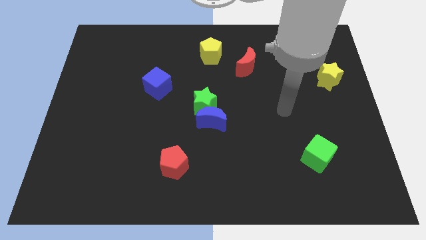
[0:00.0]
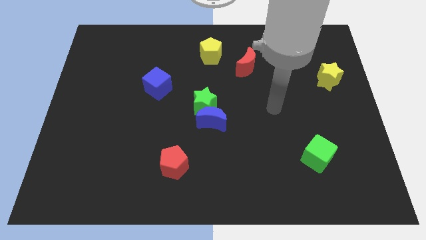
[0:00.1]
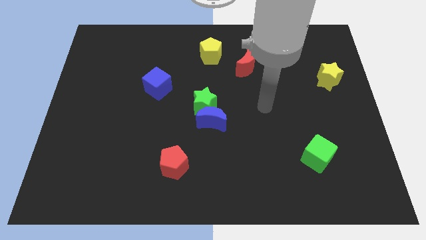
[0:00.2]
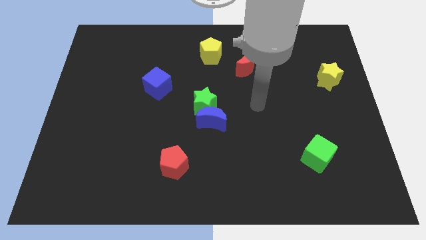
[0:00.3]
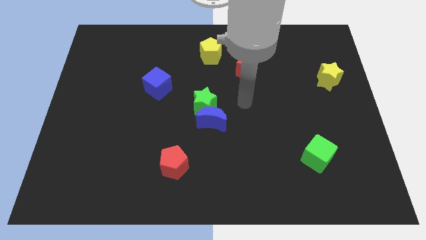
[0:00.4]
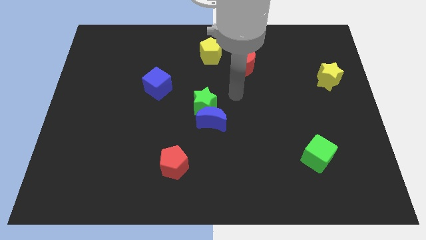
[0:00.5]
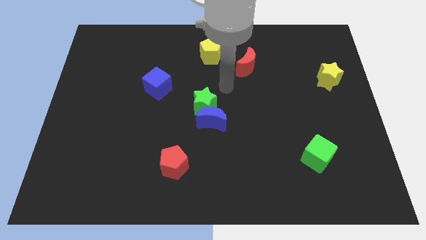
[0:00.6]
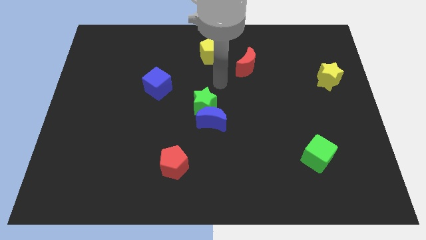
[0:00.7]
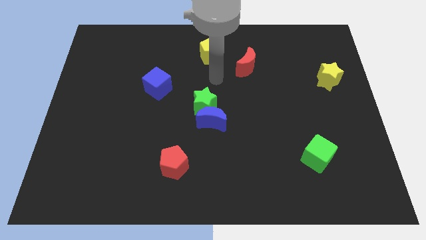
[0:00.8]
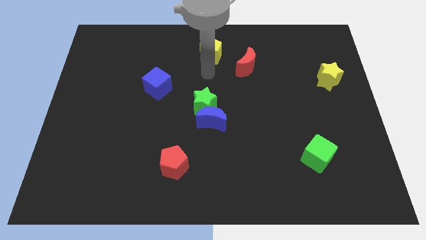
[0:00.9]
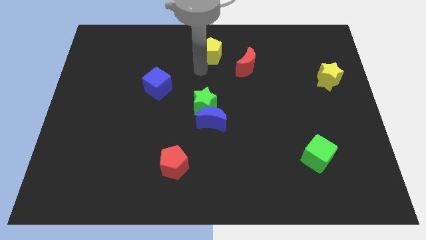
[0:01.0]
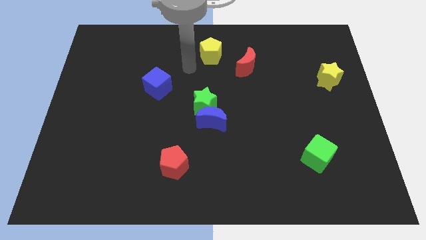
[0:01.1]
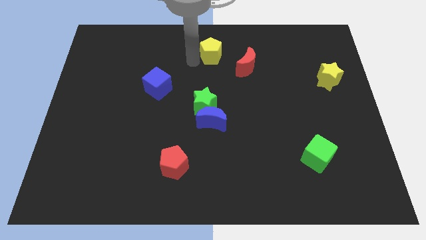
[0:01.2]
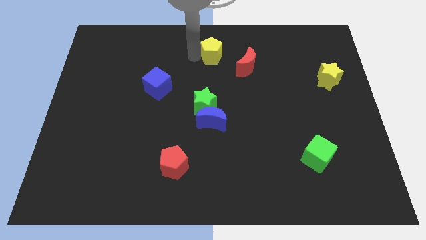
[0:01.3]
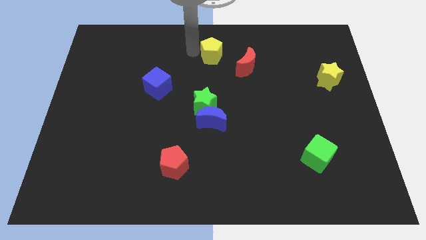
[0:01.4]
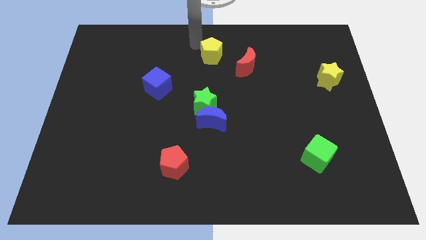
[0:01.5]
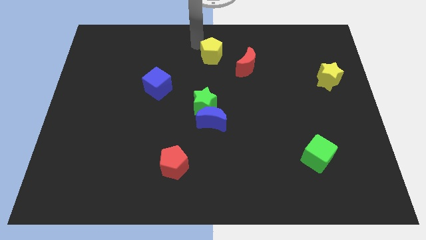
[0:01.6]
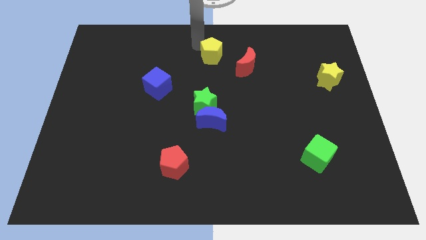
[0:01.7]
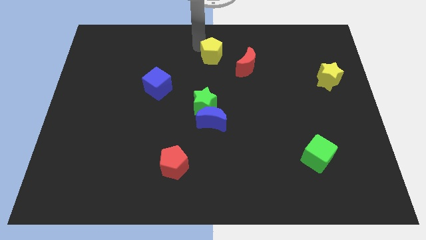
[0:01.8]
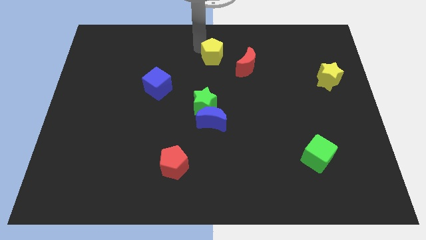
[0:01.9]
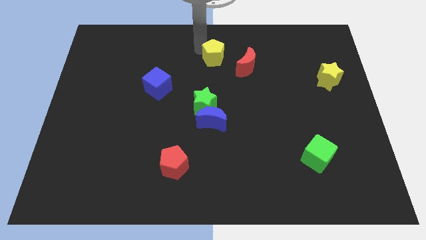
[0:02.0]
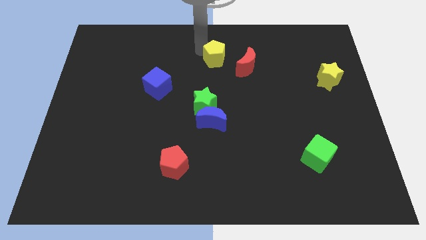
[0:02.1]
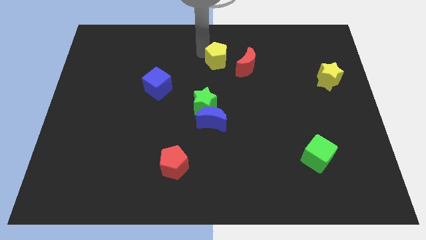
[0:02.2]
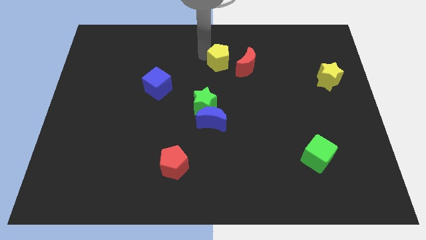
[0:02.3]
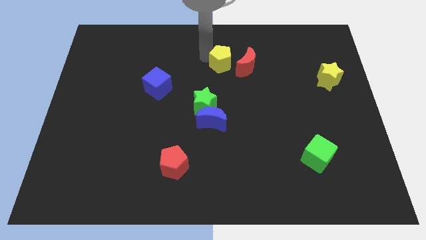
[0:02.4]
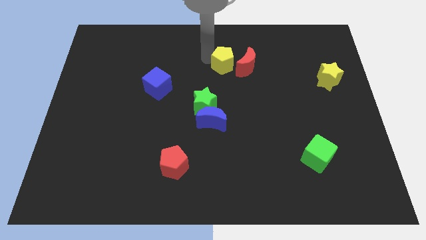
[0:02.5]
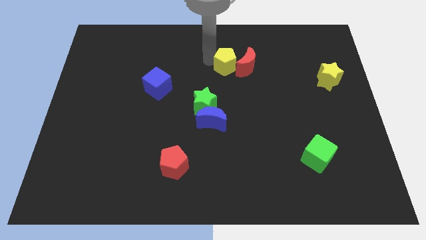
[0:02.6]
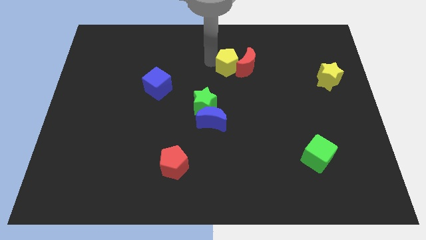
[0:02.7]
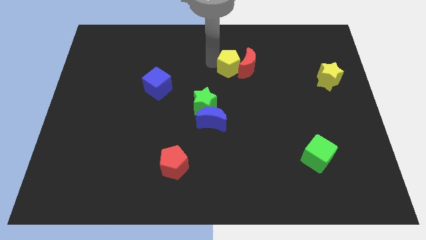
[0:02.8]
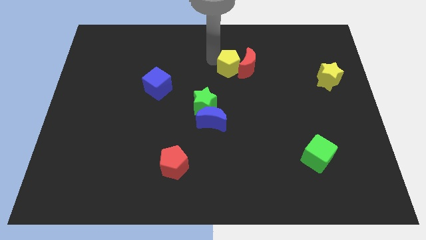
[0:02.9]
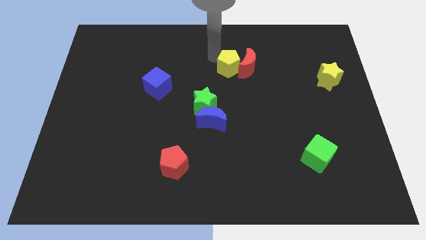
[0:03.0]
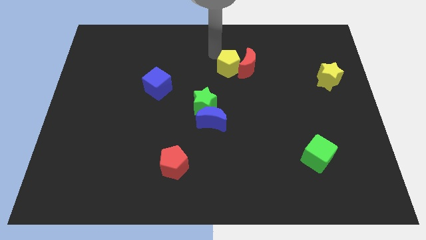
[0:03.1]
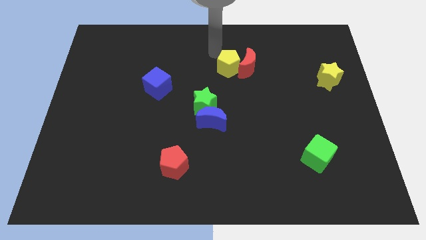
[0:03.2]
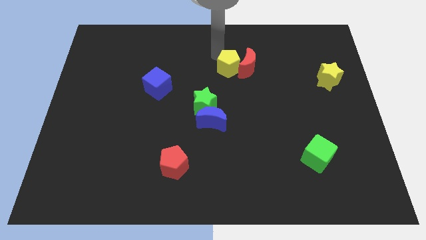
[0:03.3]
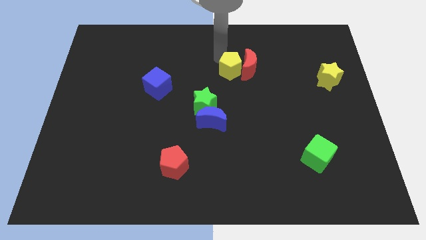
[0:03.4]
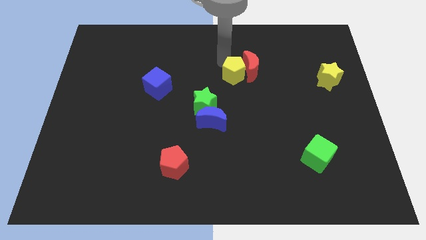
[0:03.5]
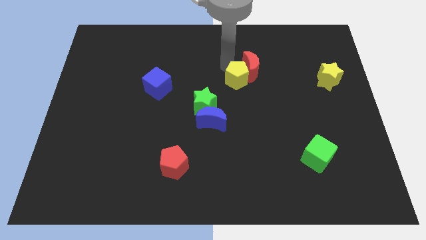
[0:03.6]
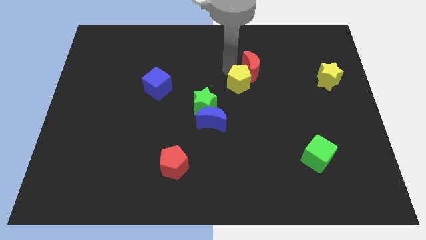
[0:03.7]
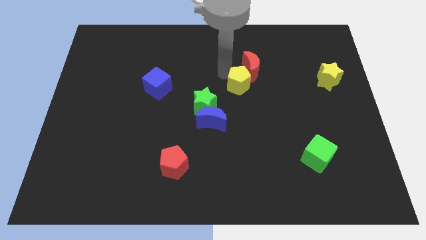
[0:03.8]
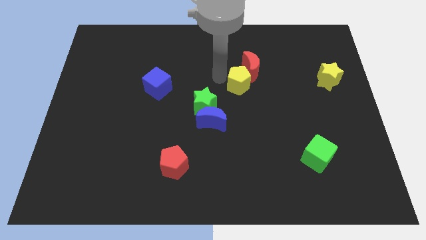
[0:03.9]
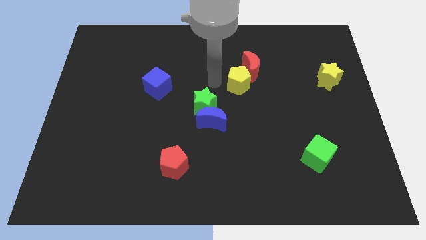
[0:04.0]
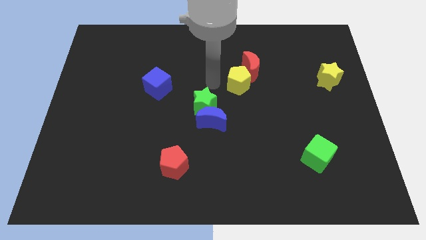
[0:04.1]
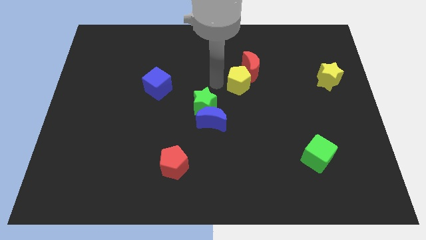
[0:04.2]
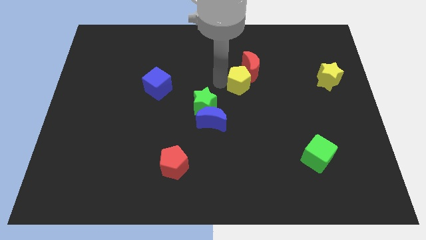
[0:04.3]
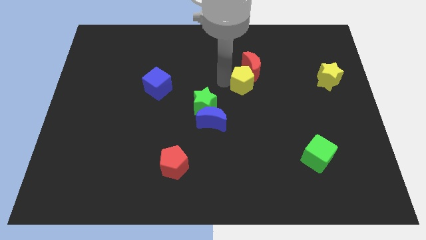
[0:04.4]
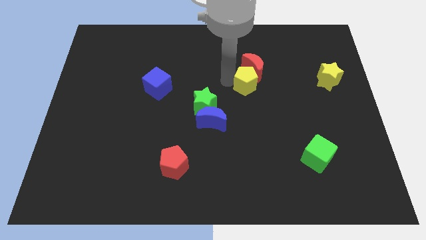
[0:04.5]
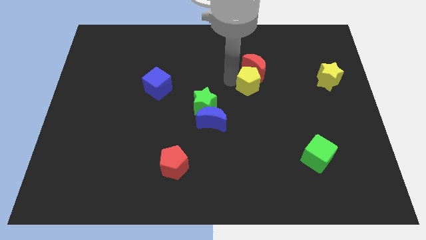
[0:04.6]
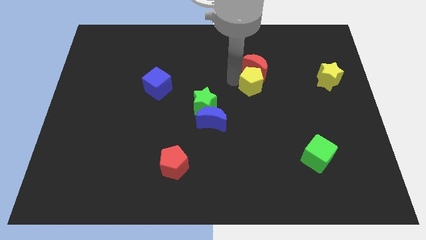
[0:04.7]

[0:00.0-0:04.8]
push the yellow pentagon to the bottom right of the red moon

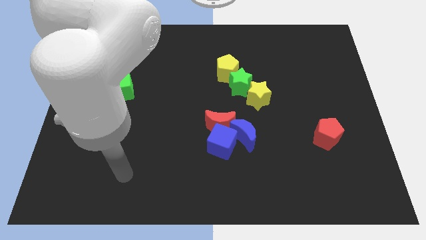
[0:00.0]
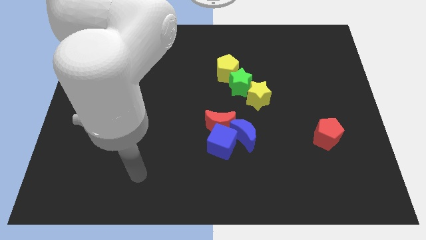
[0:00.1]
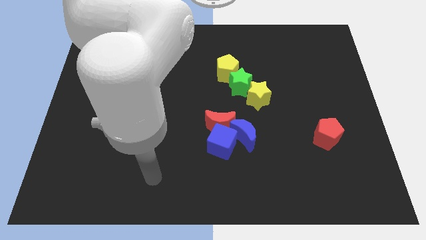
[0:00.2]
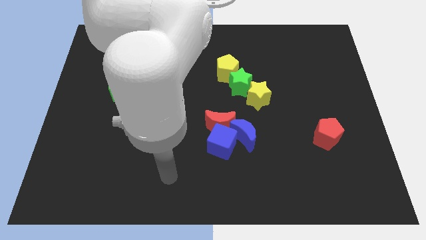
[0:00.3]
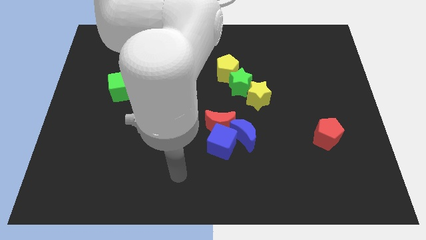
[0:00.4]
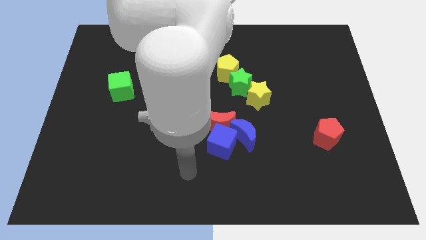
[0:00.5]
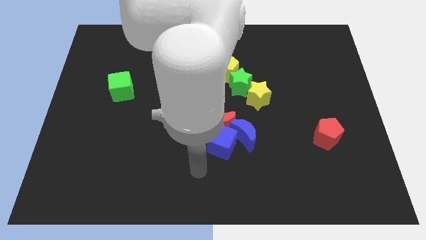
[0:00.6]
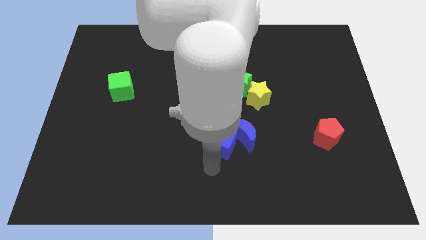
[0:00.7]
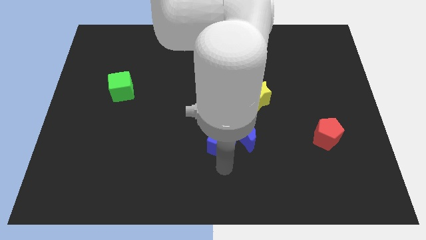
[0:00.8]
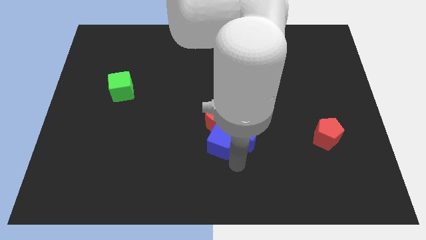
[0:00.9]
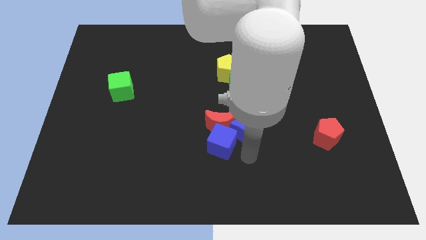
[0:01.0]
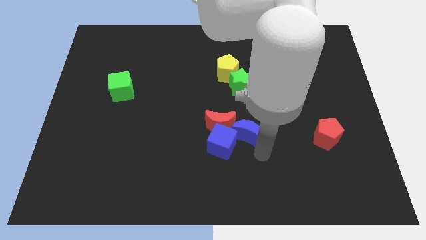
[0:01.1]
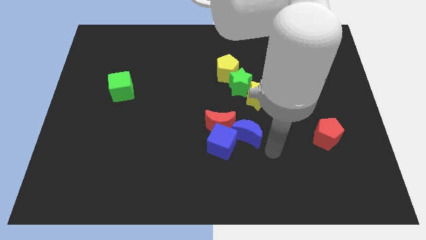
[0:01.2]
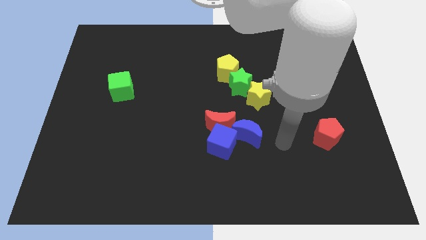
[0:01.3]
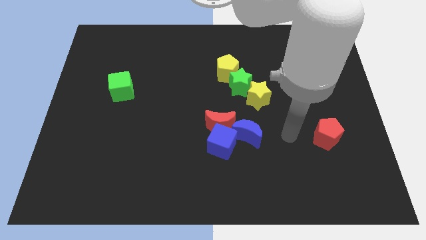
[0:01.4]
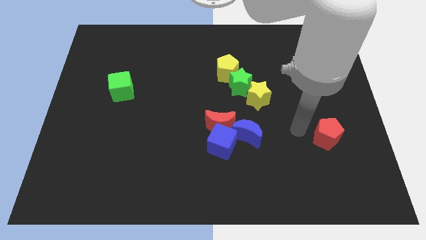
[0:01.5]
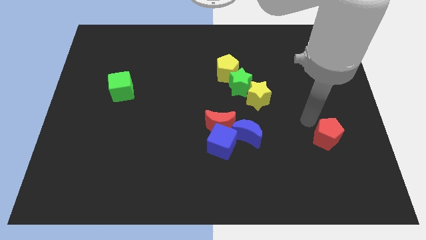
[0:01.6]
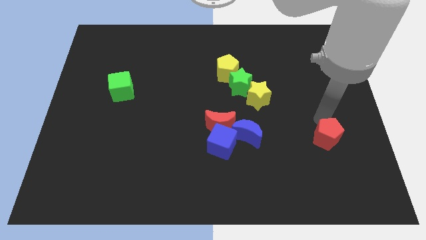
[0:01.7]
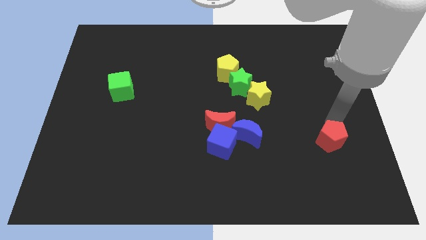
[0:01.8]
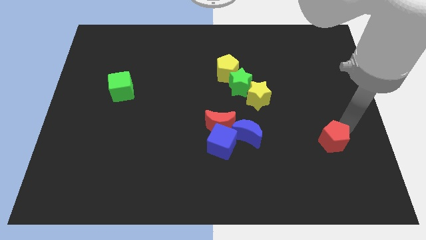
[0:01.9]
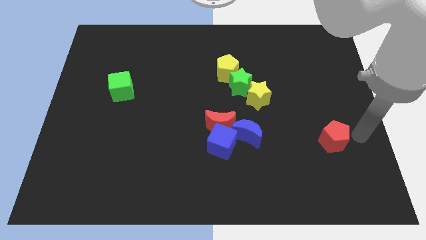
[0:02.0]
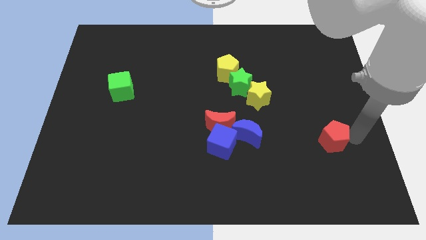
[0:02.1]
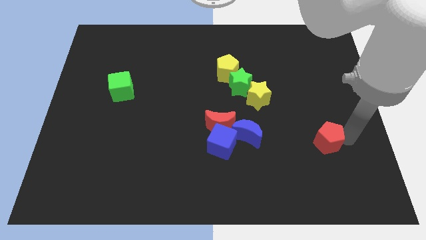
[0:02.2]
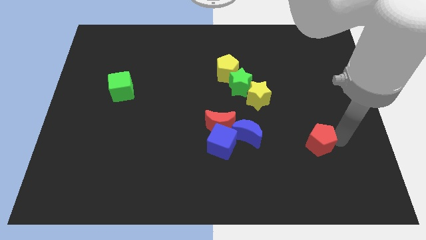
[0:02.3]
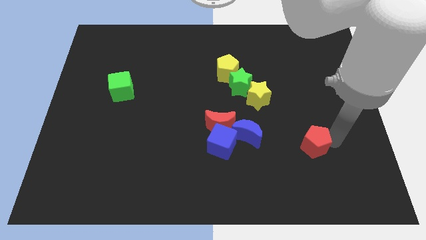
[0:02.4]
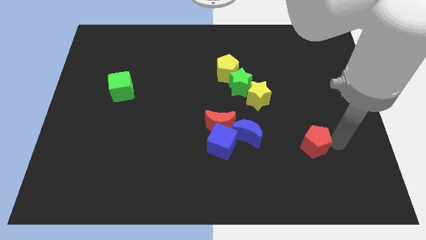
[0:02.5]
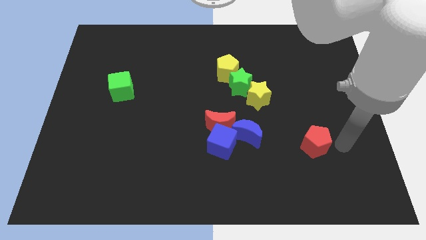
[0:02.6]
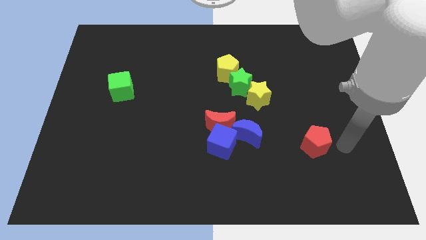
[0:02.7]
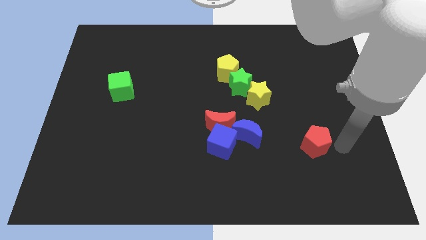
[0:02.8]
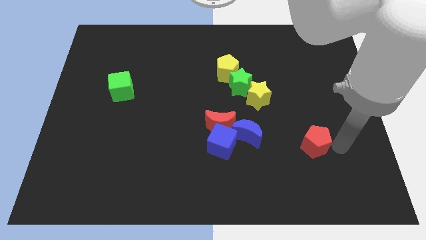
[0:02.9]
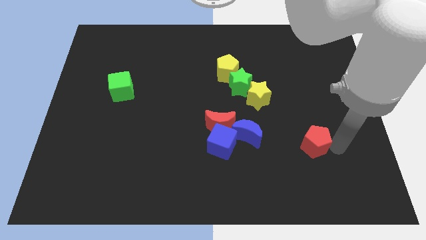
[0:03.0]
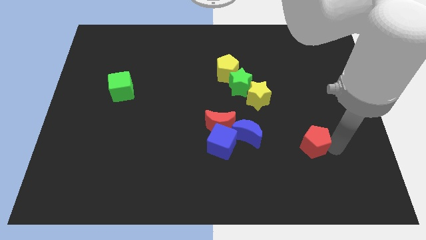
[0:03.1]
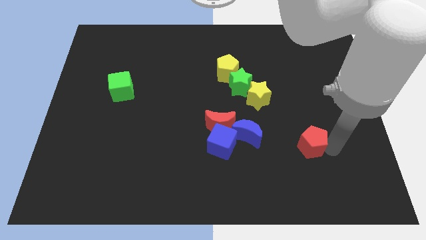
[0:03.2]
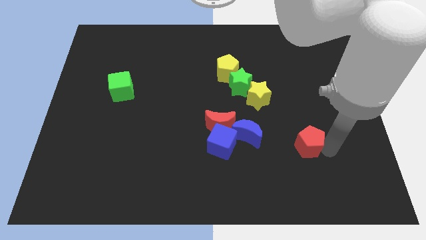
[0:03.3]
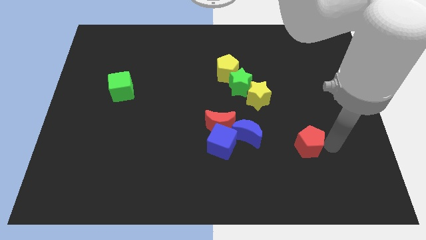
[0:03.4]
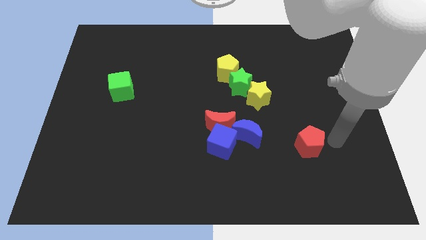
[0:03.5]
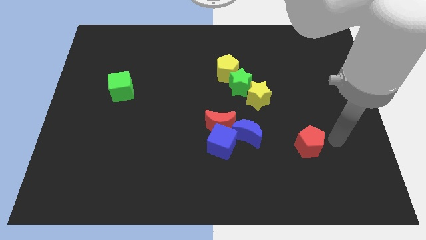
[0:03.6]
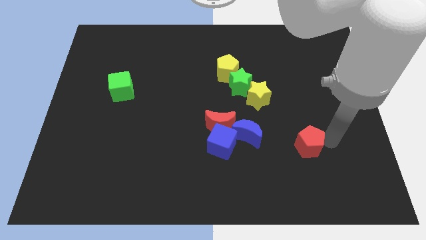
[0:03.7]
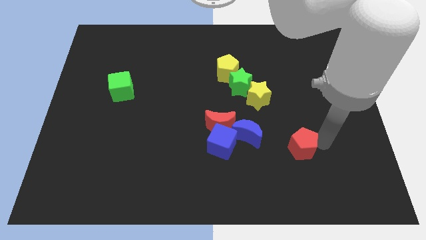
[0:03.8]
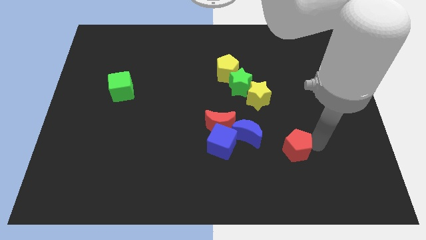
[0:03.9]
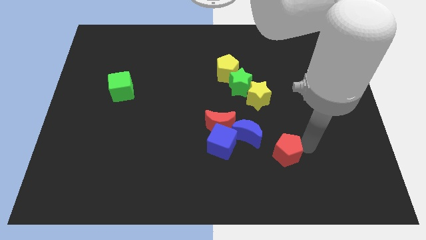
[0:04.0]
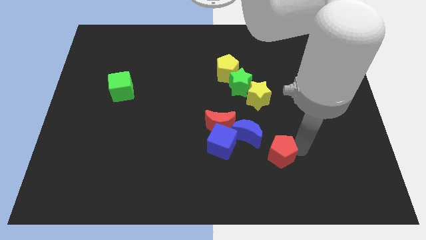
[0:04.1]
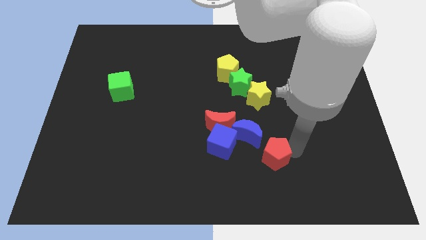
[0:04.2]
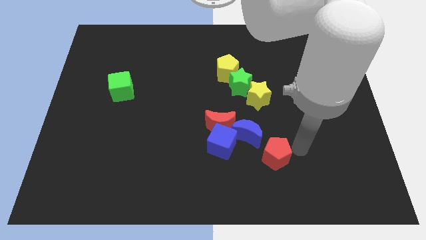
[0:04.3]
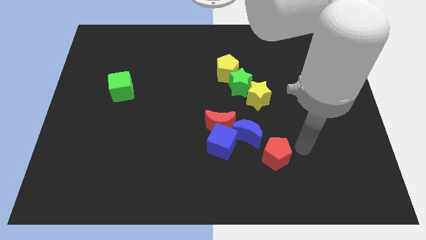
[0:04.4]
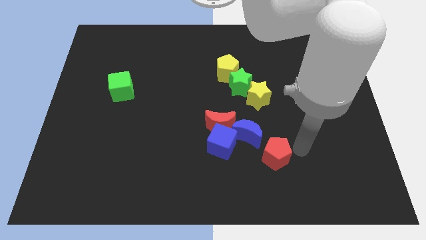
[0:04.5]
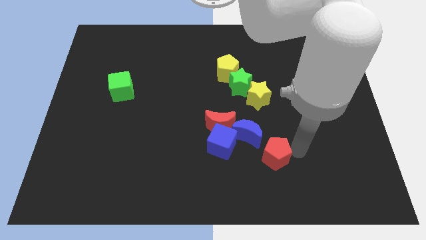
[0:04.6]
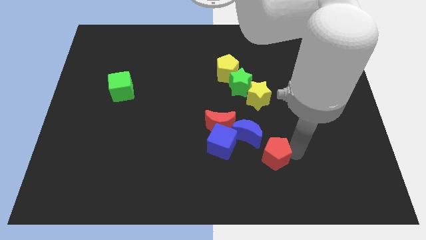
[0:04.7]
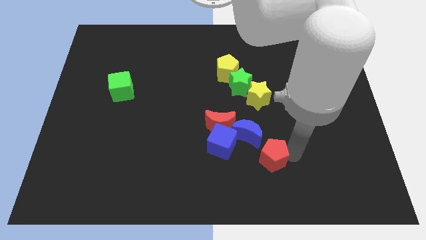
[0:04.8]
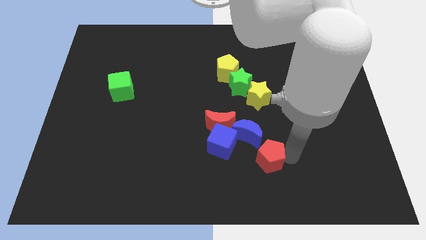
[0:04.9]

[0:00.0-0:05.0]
put the red pentagon to the bottom right side of the blue cube
